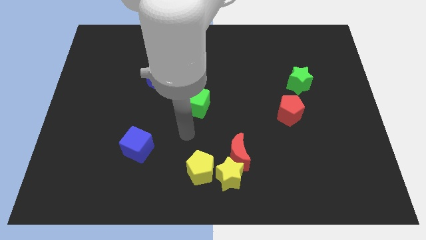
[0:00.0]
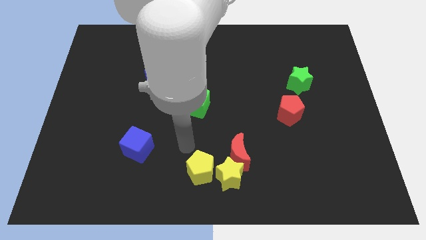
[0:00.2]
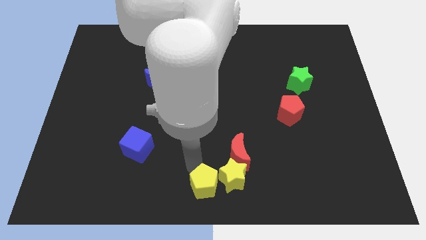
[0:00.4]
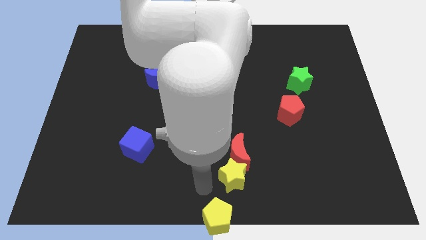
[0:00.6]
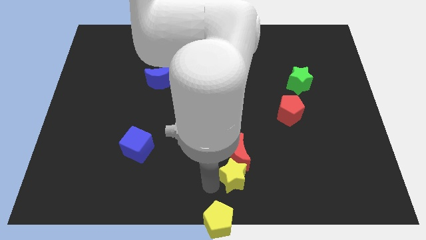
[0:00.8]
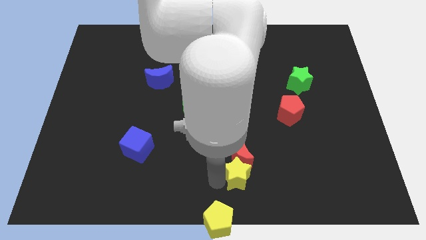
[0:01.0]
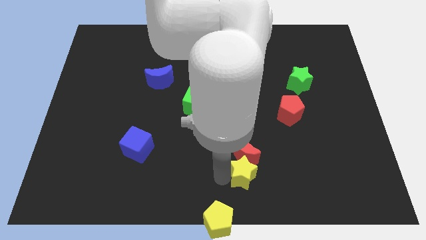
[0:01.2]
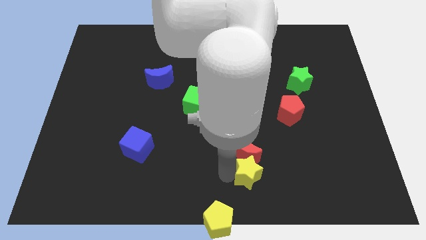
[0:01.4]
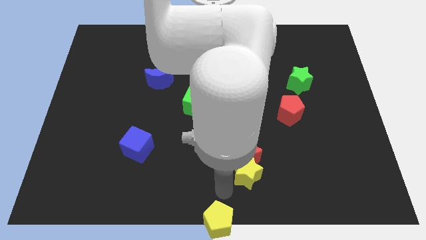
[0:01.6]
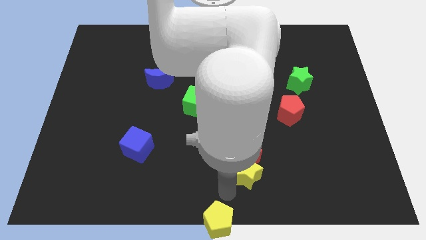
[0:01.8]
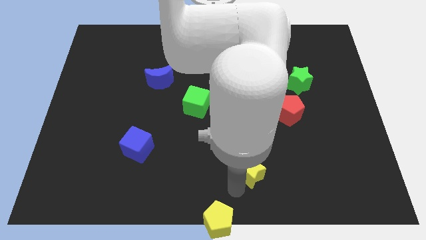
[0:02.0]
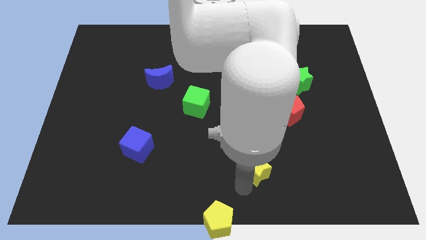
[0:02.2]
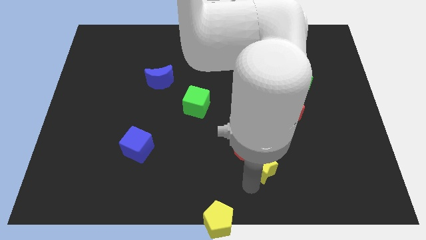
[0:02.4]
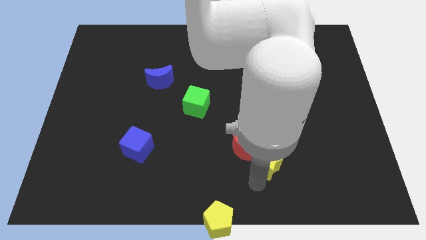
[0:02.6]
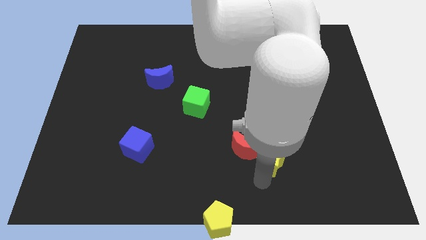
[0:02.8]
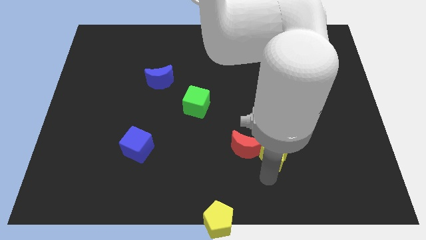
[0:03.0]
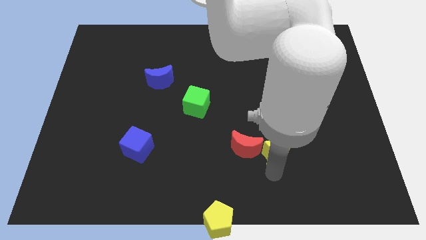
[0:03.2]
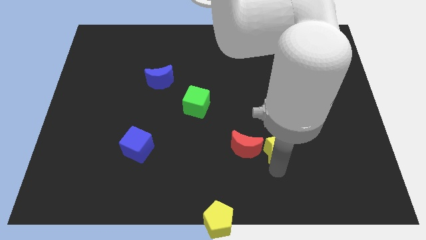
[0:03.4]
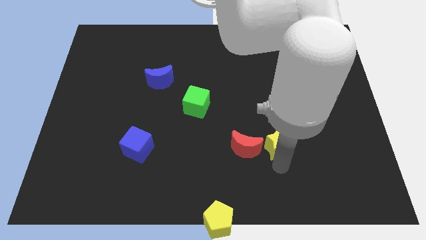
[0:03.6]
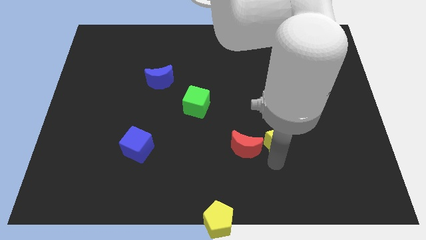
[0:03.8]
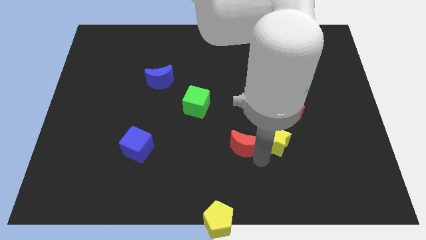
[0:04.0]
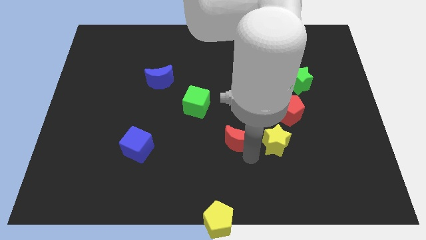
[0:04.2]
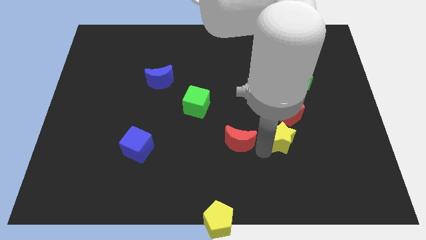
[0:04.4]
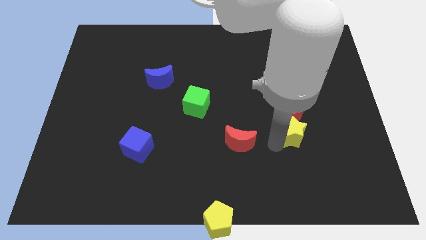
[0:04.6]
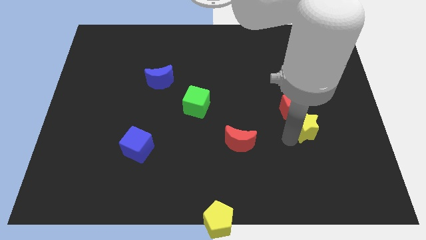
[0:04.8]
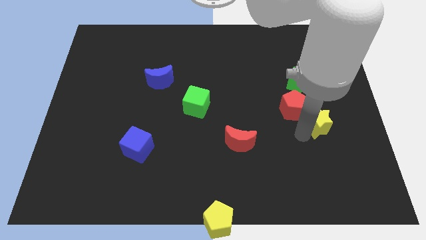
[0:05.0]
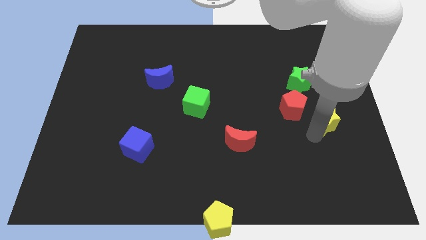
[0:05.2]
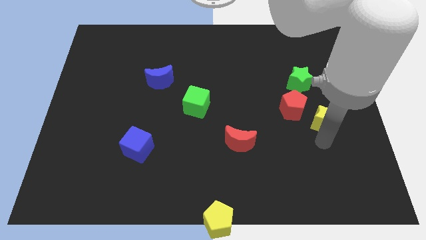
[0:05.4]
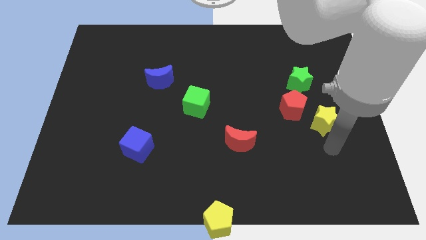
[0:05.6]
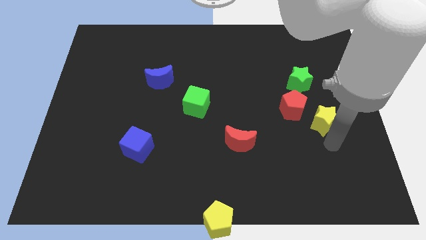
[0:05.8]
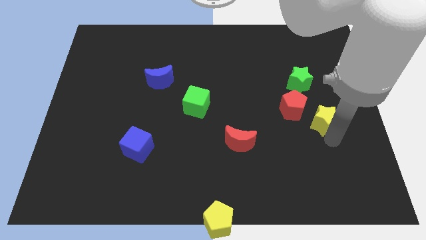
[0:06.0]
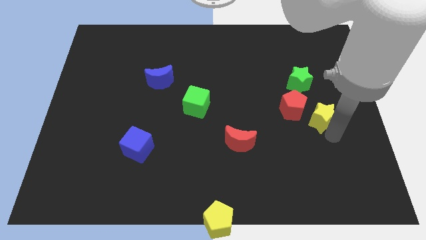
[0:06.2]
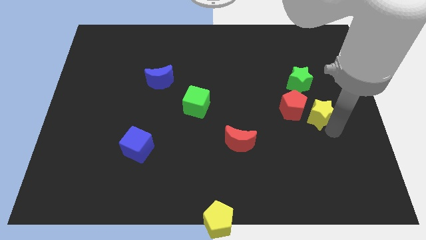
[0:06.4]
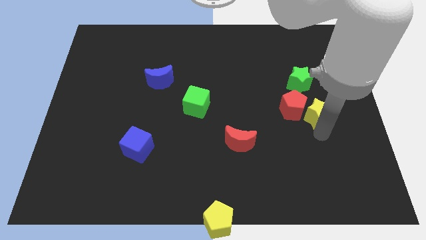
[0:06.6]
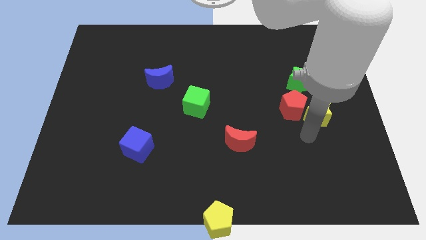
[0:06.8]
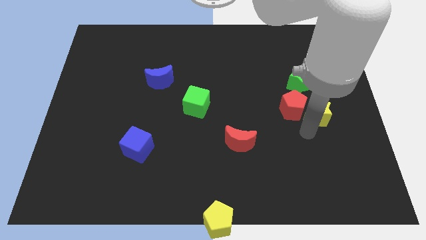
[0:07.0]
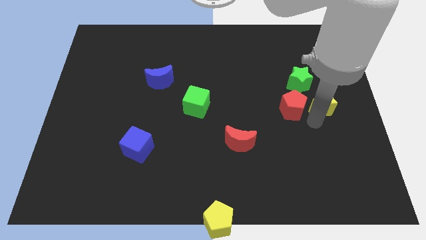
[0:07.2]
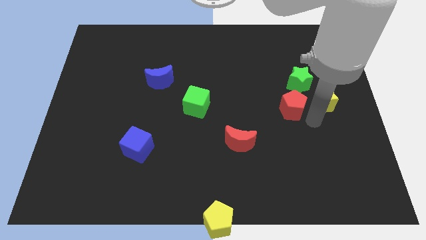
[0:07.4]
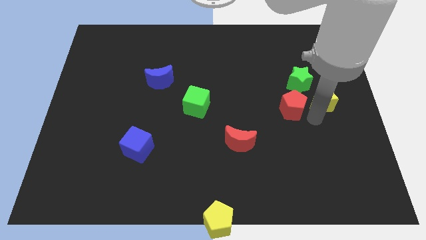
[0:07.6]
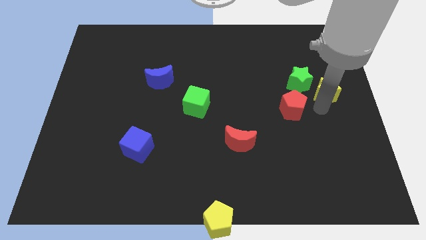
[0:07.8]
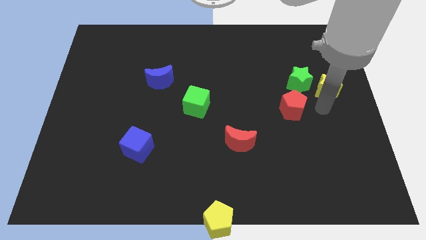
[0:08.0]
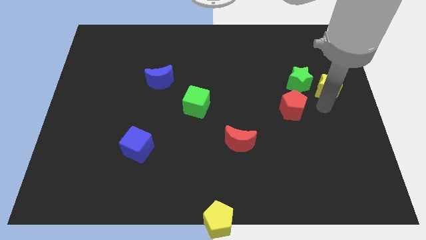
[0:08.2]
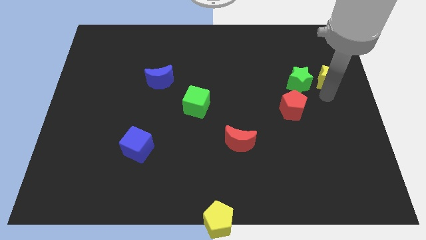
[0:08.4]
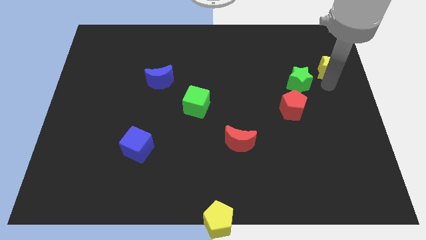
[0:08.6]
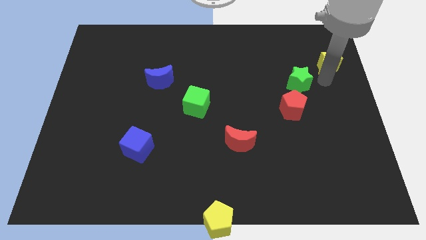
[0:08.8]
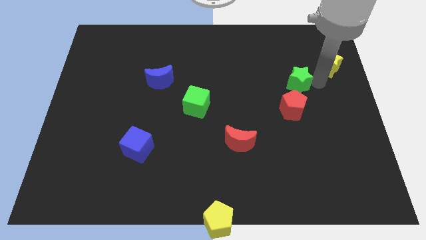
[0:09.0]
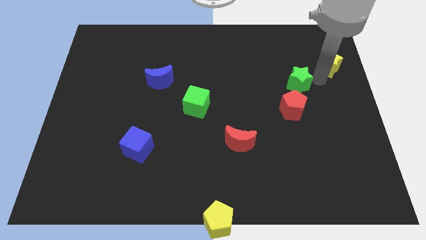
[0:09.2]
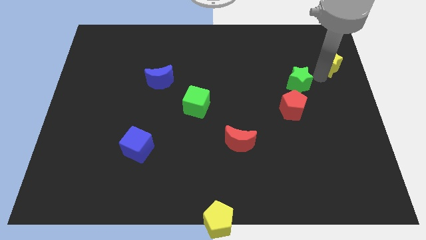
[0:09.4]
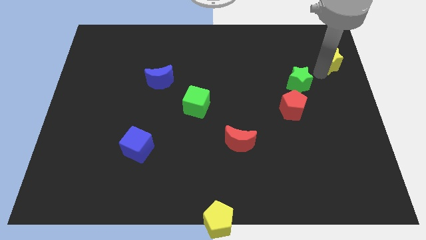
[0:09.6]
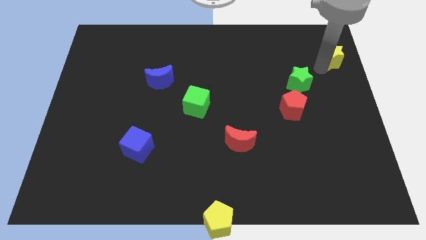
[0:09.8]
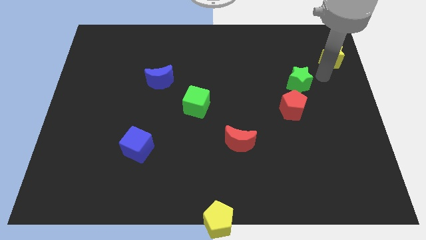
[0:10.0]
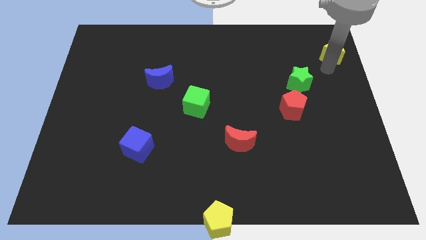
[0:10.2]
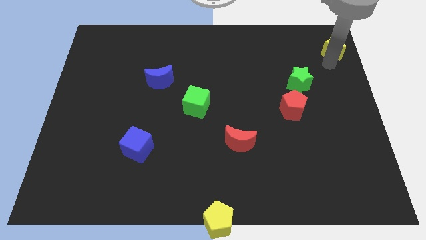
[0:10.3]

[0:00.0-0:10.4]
slide the yellow star to the top right

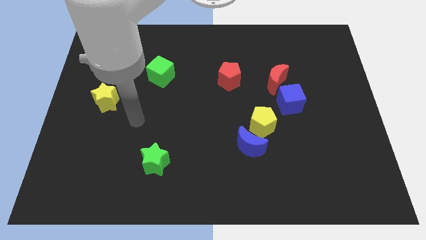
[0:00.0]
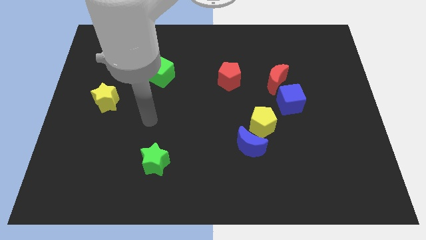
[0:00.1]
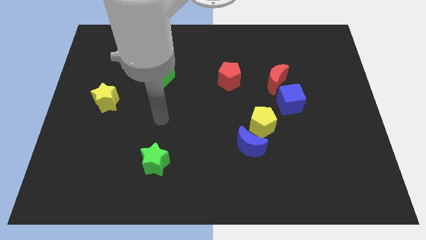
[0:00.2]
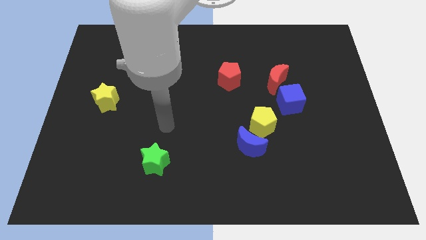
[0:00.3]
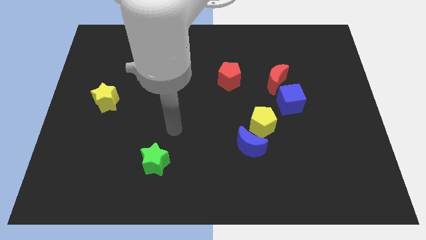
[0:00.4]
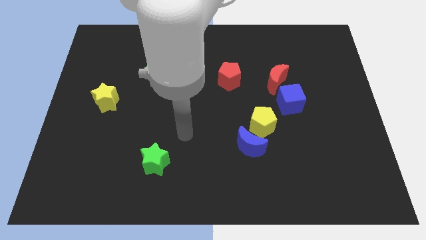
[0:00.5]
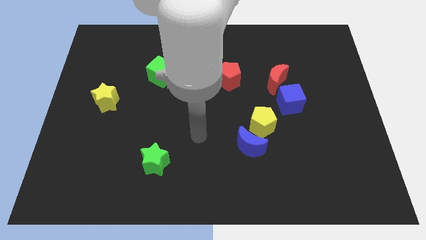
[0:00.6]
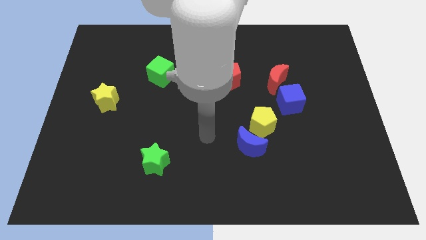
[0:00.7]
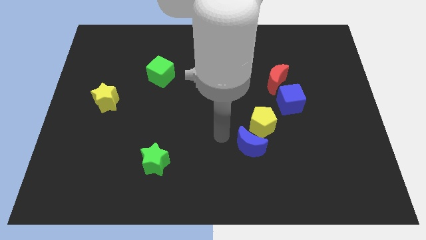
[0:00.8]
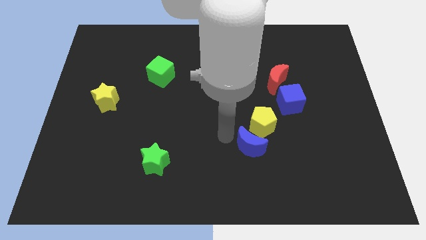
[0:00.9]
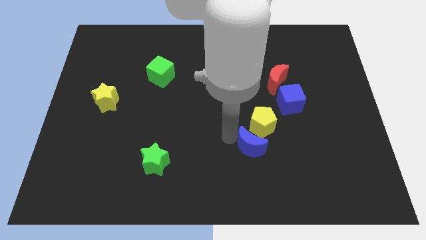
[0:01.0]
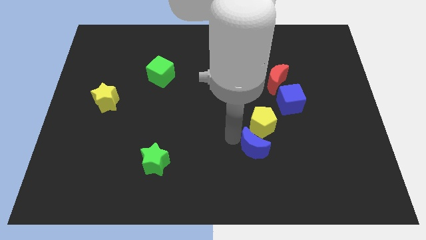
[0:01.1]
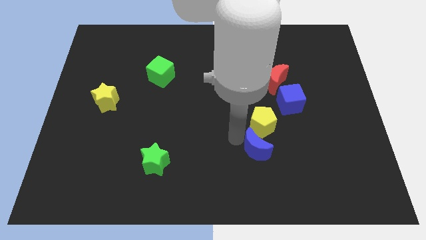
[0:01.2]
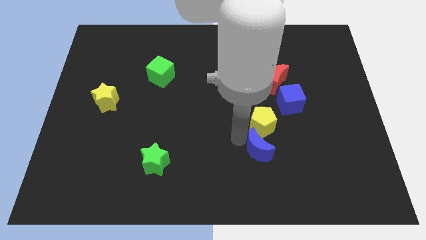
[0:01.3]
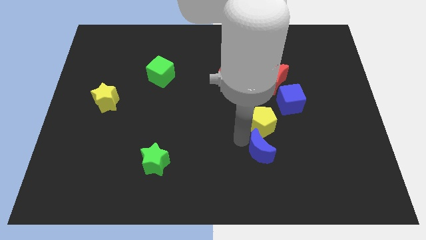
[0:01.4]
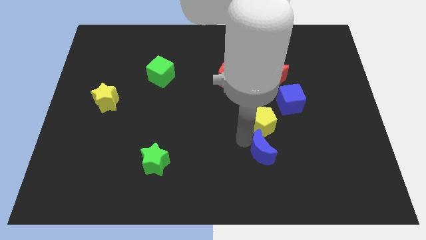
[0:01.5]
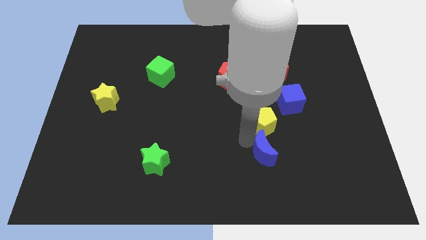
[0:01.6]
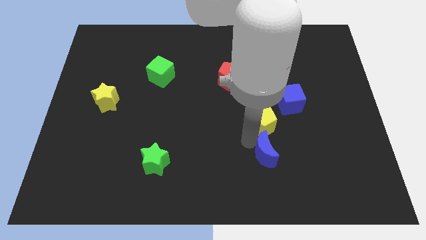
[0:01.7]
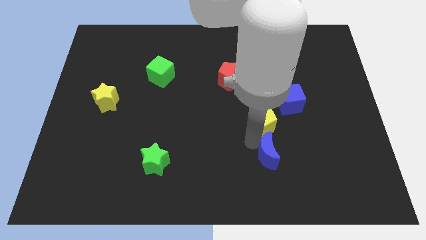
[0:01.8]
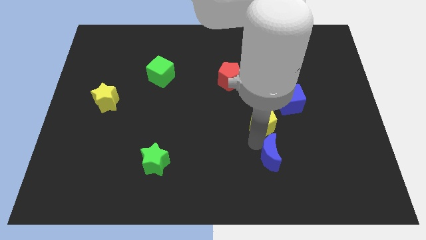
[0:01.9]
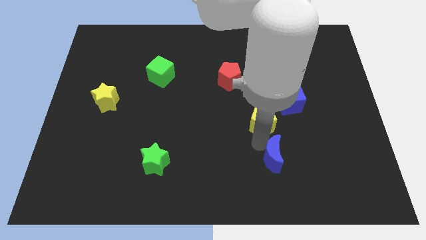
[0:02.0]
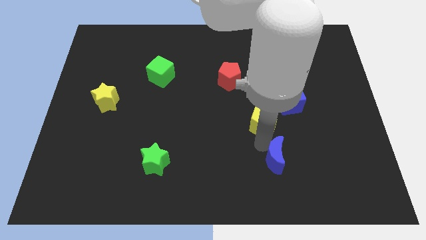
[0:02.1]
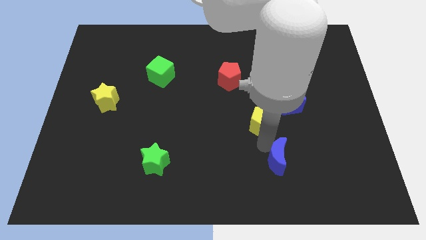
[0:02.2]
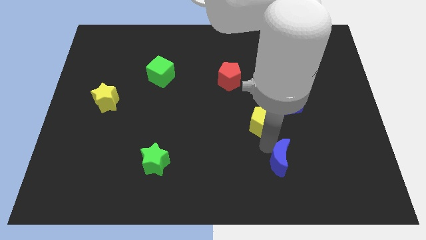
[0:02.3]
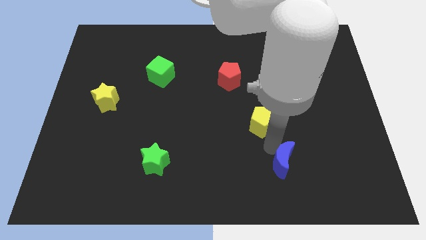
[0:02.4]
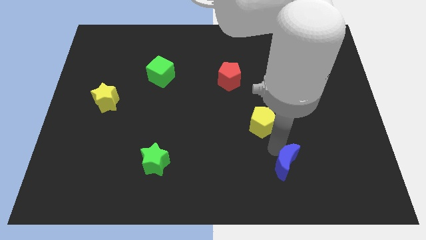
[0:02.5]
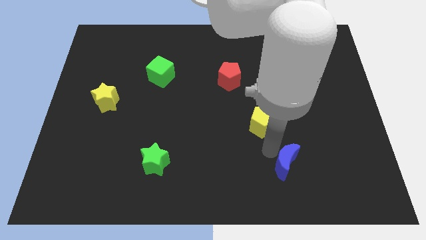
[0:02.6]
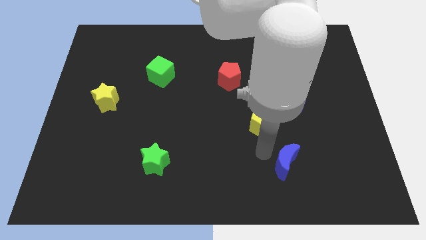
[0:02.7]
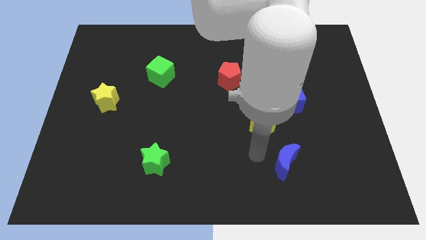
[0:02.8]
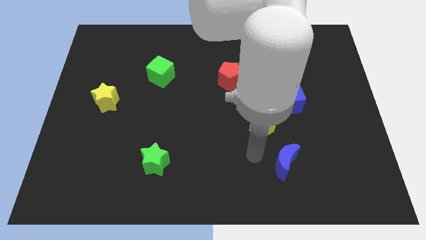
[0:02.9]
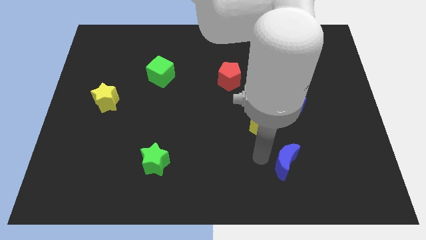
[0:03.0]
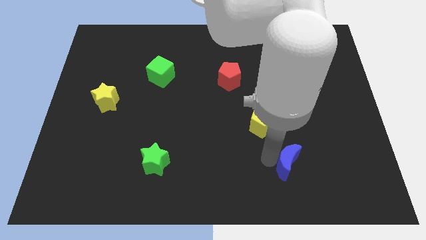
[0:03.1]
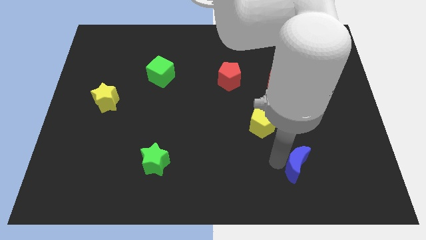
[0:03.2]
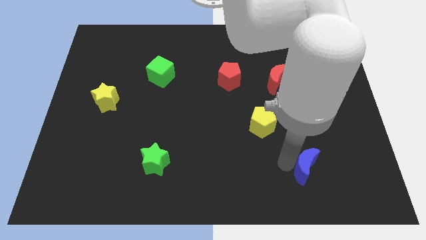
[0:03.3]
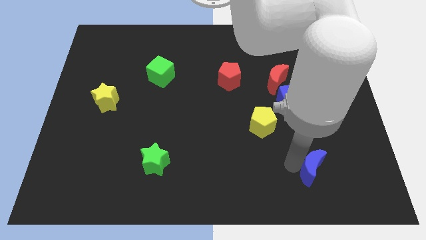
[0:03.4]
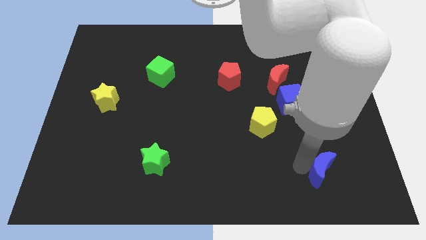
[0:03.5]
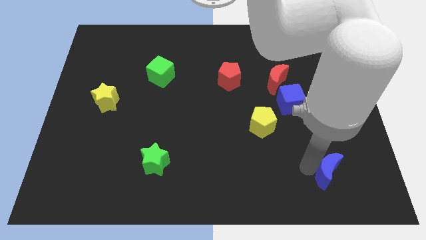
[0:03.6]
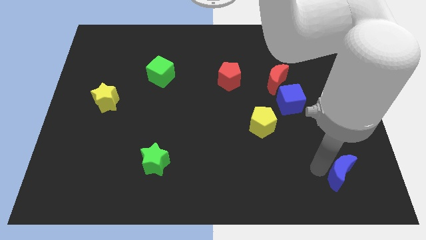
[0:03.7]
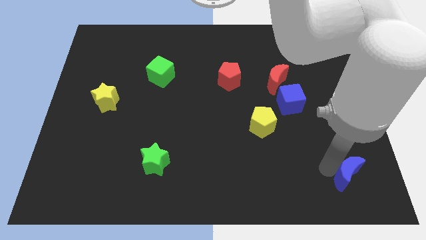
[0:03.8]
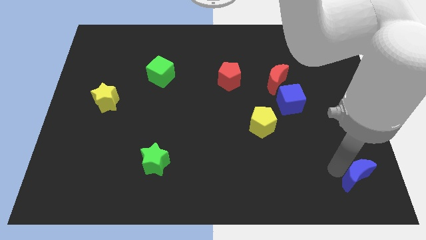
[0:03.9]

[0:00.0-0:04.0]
put the blue moon to the bottom right of the board
